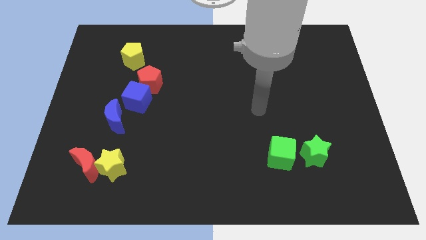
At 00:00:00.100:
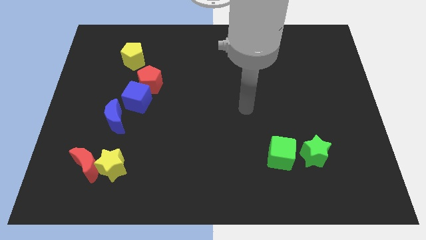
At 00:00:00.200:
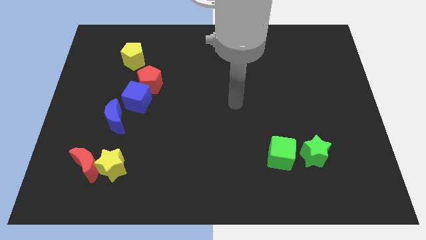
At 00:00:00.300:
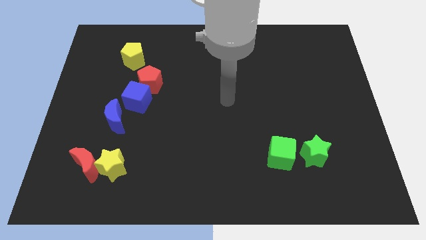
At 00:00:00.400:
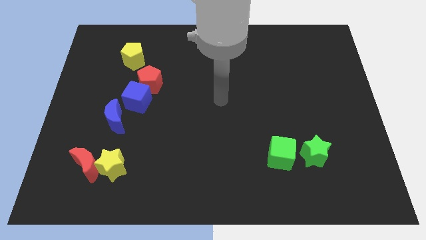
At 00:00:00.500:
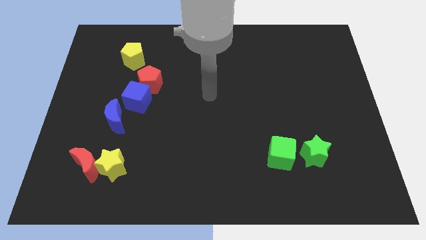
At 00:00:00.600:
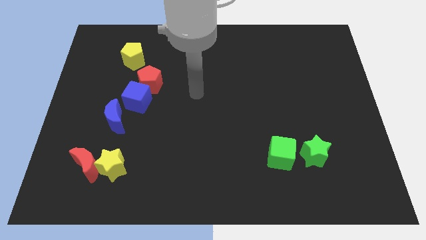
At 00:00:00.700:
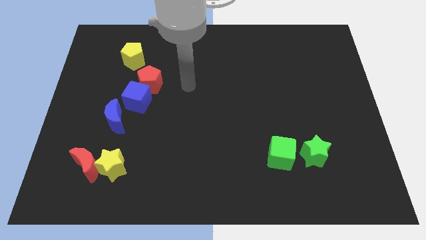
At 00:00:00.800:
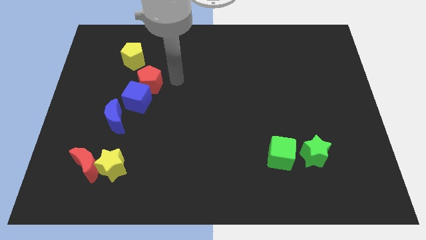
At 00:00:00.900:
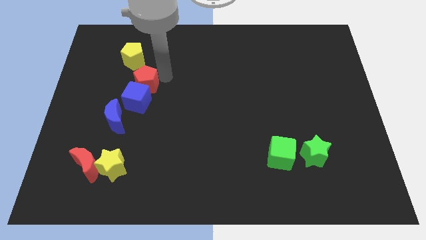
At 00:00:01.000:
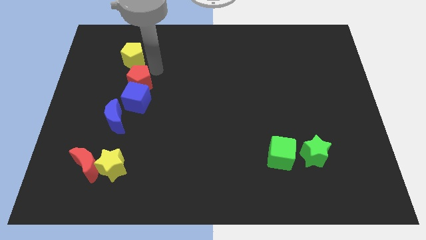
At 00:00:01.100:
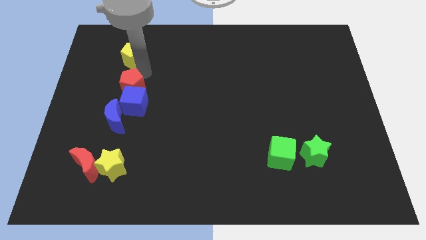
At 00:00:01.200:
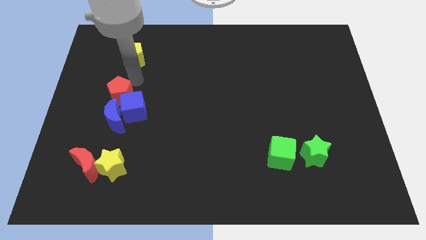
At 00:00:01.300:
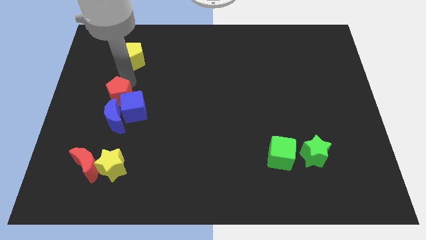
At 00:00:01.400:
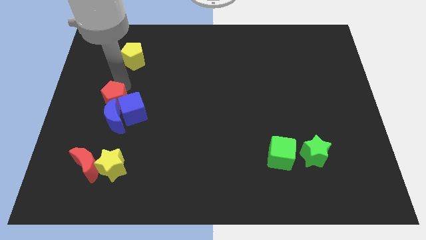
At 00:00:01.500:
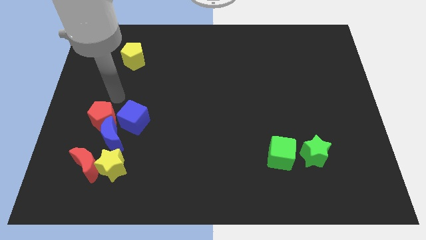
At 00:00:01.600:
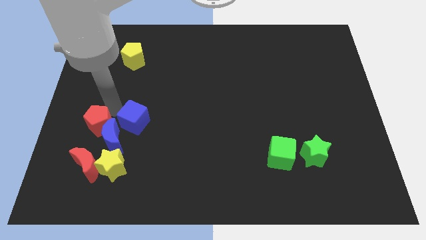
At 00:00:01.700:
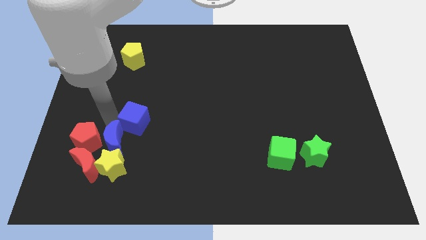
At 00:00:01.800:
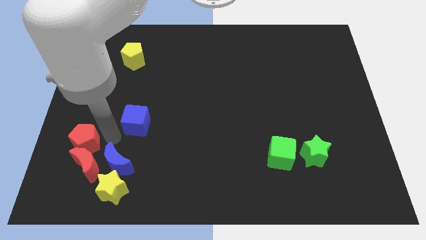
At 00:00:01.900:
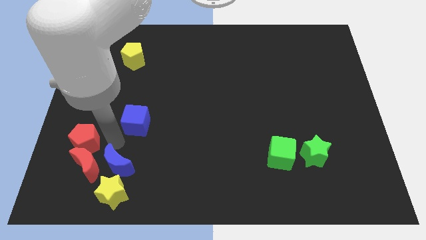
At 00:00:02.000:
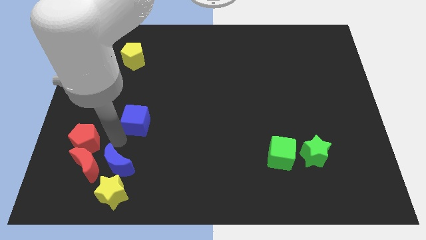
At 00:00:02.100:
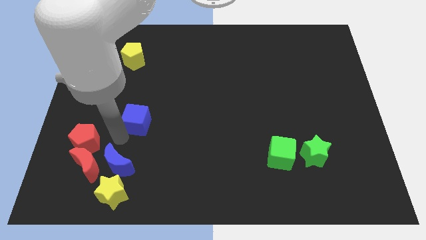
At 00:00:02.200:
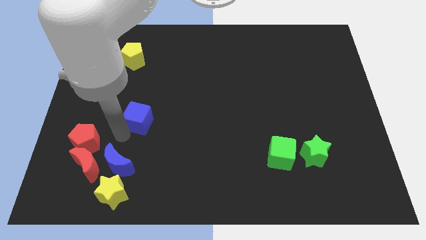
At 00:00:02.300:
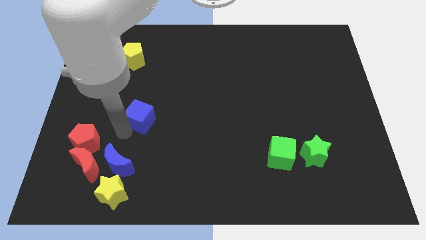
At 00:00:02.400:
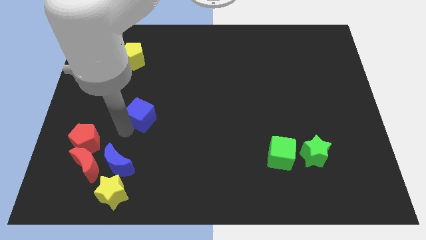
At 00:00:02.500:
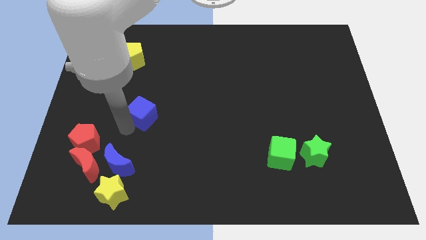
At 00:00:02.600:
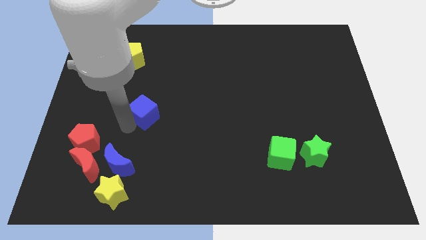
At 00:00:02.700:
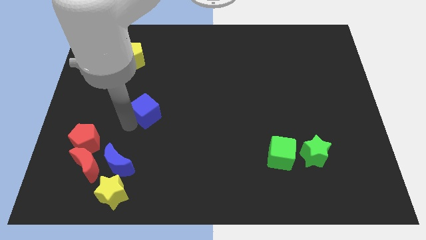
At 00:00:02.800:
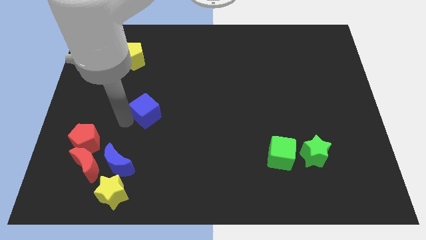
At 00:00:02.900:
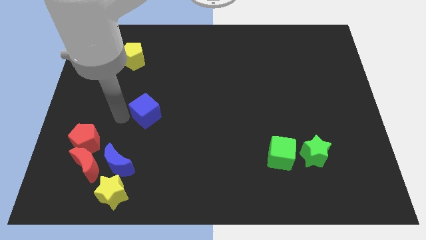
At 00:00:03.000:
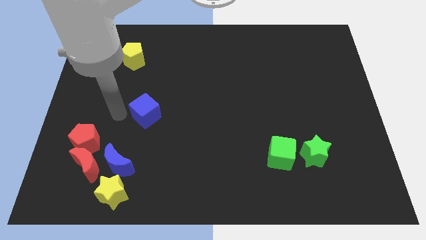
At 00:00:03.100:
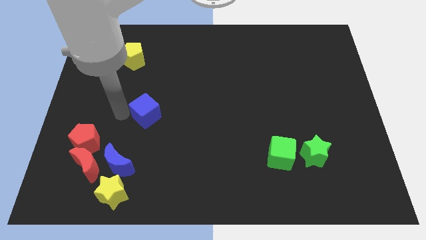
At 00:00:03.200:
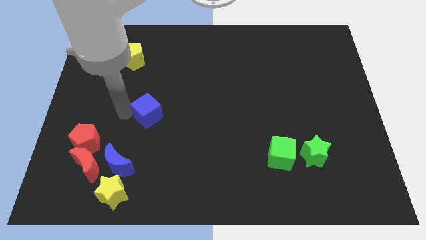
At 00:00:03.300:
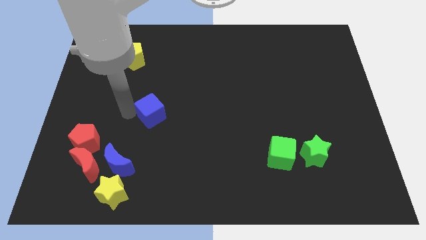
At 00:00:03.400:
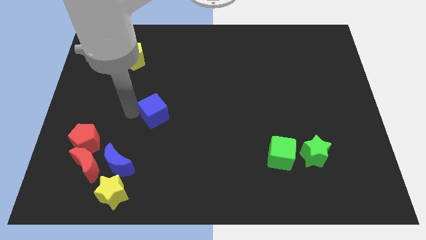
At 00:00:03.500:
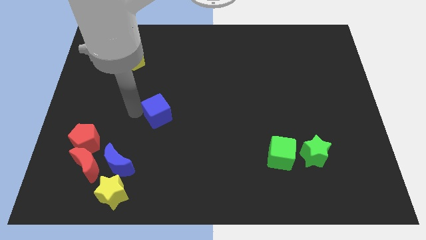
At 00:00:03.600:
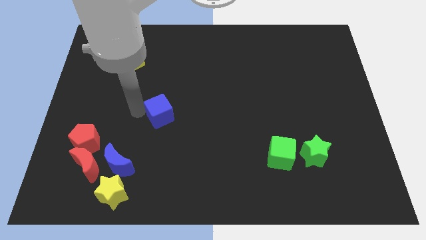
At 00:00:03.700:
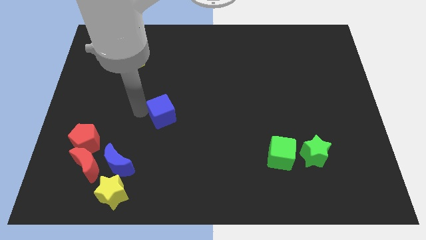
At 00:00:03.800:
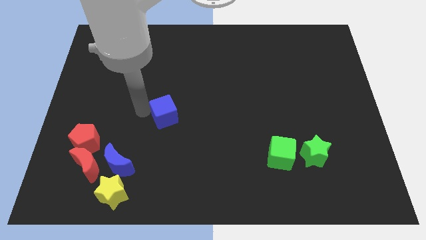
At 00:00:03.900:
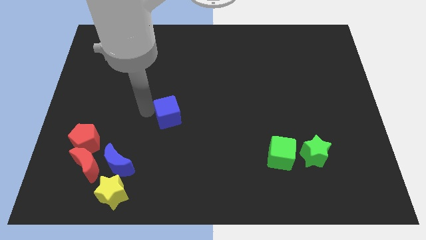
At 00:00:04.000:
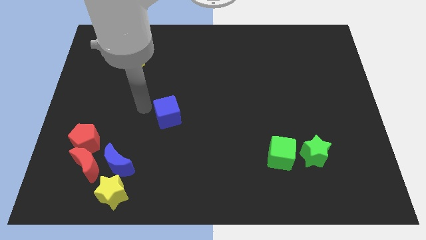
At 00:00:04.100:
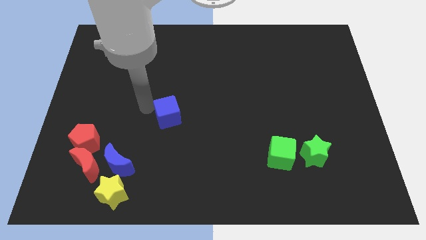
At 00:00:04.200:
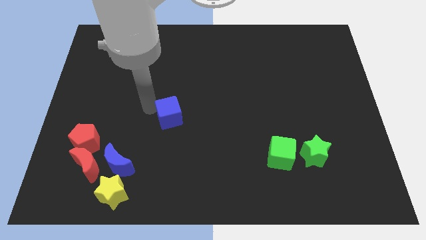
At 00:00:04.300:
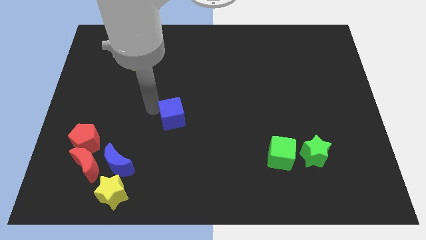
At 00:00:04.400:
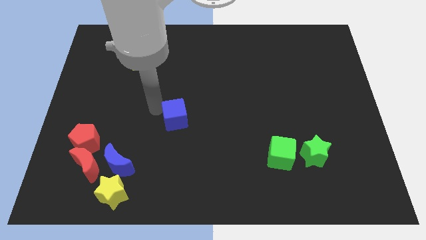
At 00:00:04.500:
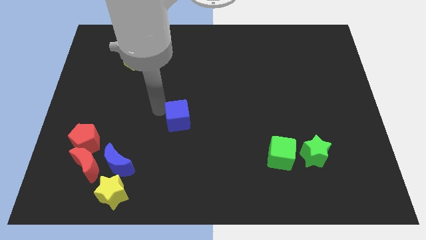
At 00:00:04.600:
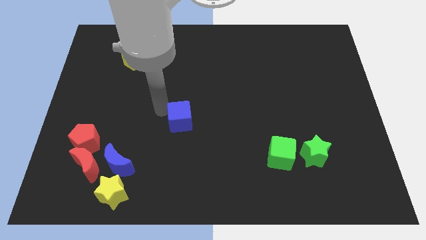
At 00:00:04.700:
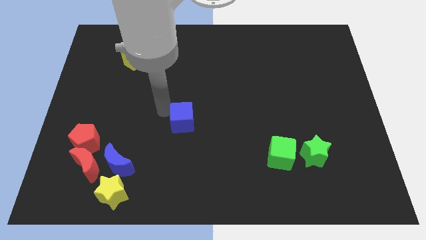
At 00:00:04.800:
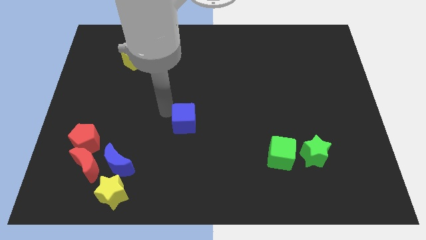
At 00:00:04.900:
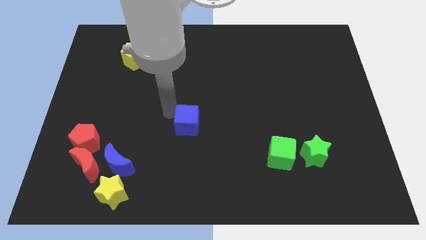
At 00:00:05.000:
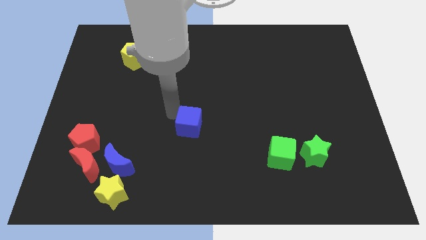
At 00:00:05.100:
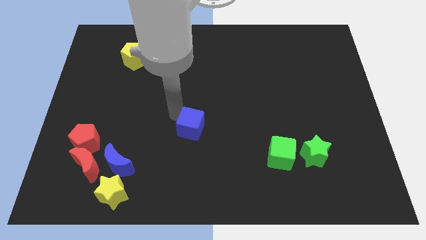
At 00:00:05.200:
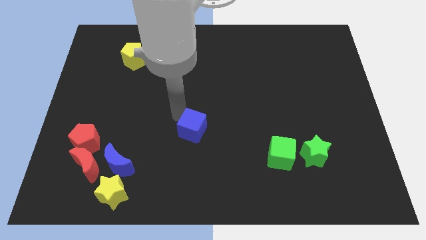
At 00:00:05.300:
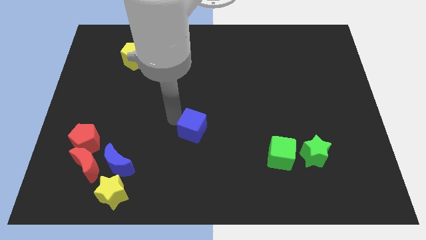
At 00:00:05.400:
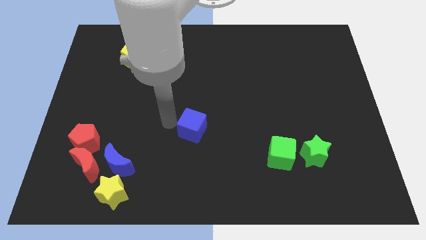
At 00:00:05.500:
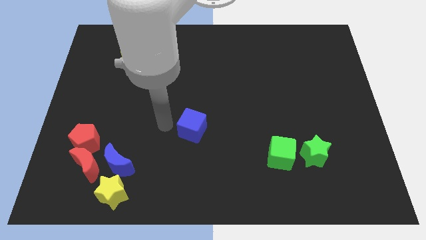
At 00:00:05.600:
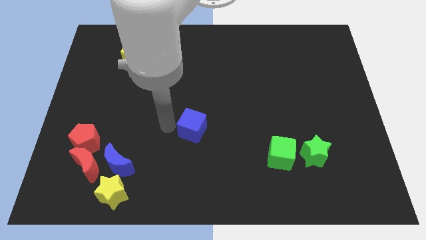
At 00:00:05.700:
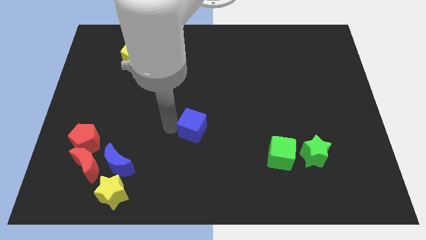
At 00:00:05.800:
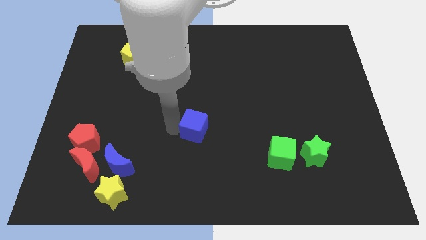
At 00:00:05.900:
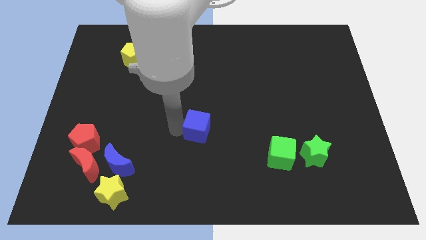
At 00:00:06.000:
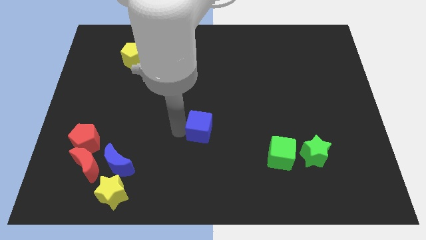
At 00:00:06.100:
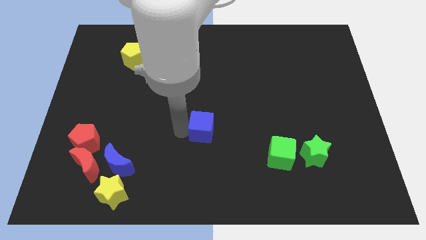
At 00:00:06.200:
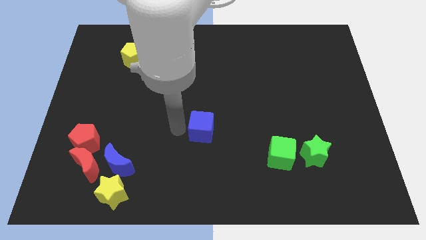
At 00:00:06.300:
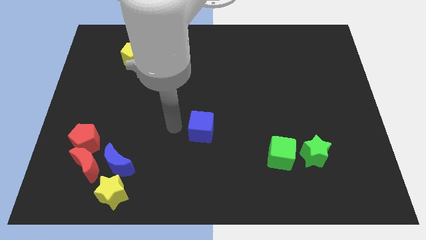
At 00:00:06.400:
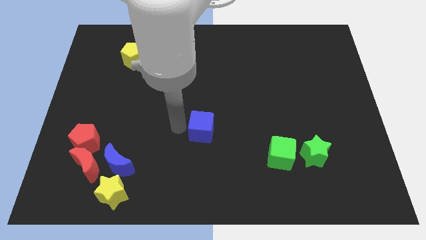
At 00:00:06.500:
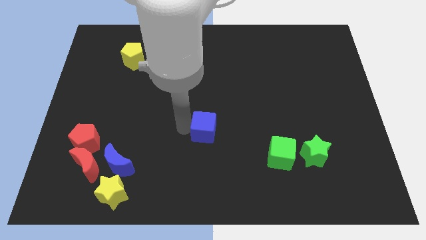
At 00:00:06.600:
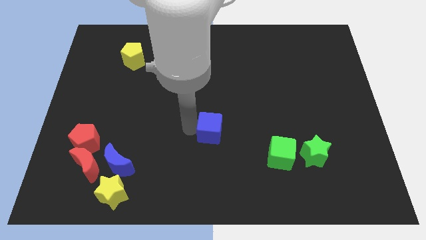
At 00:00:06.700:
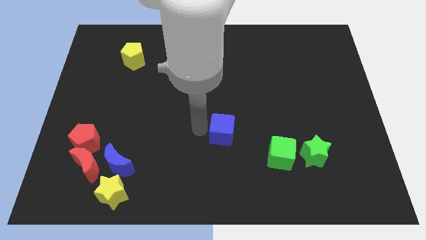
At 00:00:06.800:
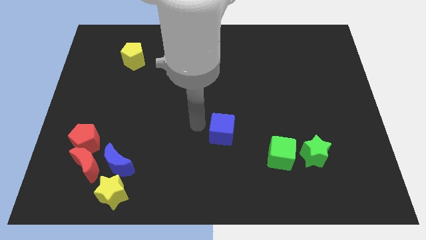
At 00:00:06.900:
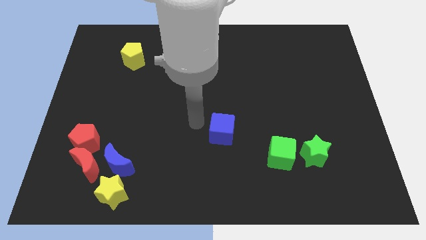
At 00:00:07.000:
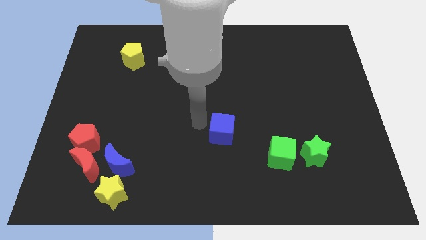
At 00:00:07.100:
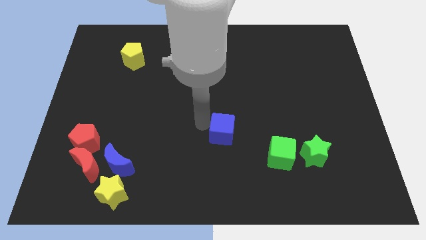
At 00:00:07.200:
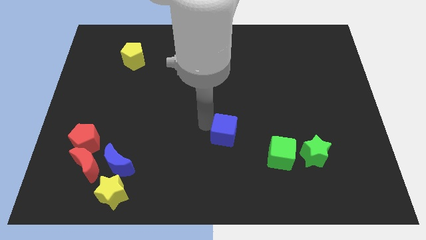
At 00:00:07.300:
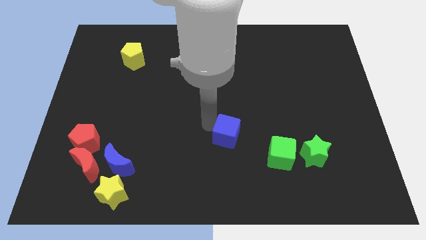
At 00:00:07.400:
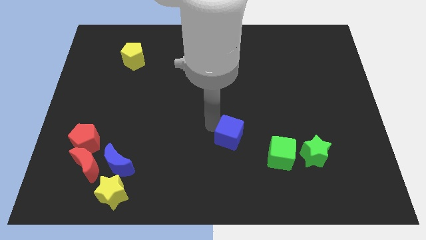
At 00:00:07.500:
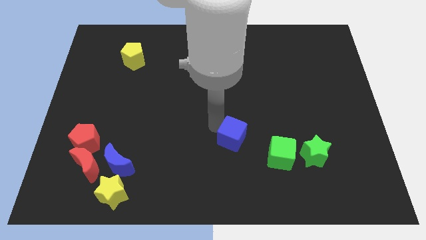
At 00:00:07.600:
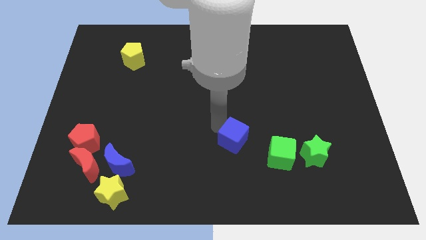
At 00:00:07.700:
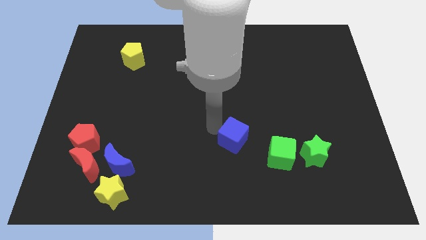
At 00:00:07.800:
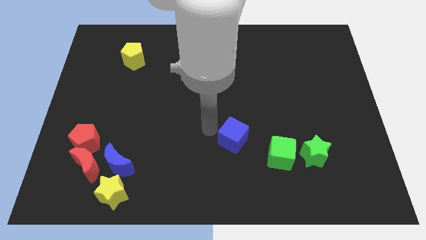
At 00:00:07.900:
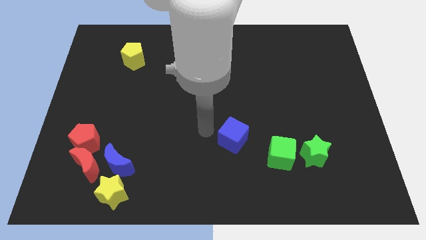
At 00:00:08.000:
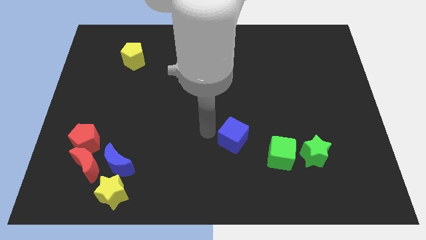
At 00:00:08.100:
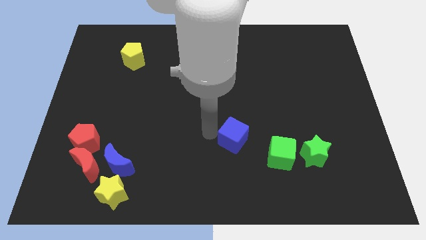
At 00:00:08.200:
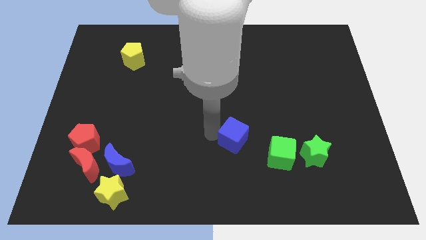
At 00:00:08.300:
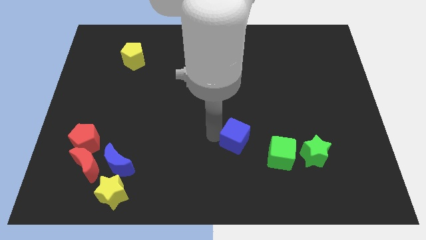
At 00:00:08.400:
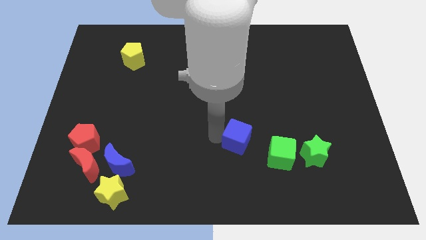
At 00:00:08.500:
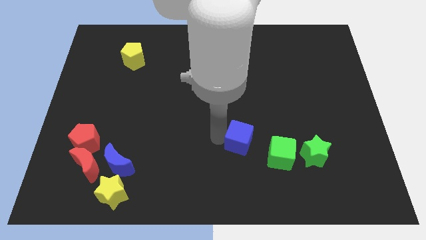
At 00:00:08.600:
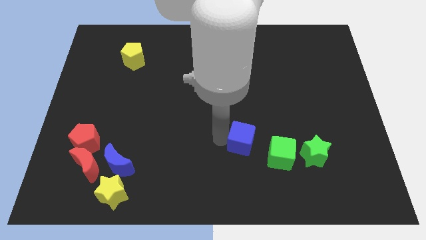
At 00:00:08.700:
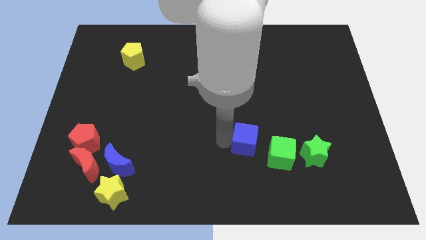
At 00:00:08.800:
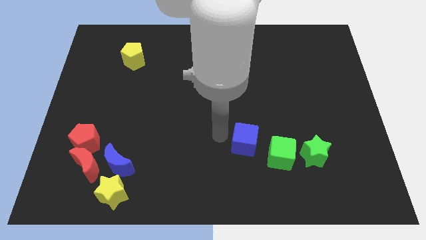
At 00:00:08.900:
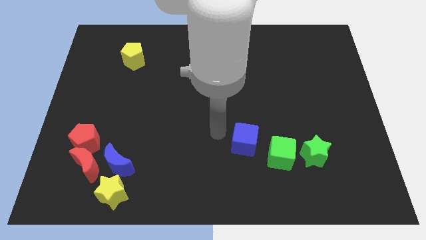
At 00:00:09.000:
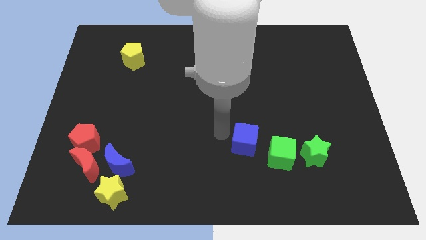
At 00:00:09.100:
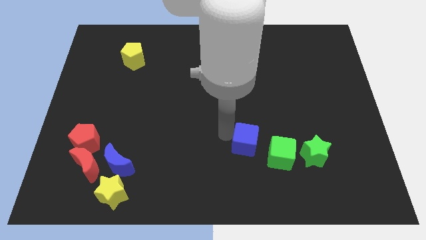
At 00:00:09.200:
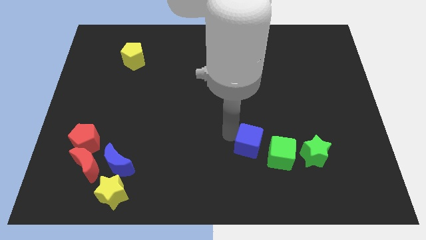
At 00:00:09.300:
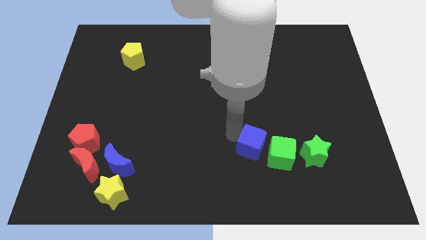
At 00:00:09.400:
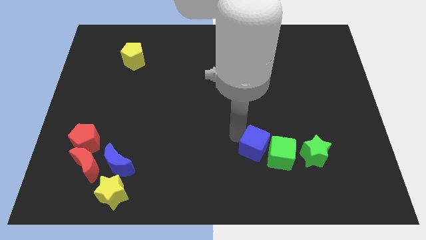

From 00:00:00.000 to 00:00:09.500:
move the blue cube towards the green cube
